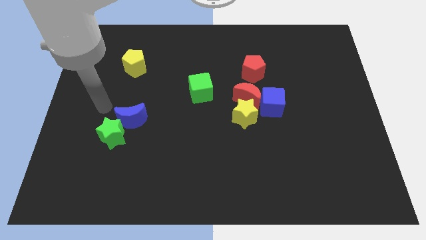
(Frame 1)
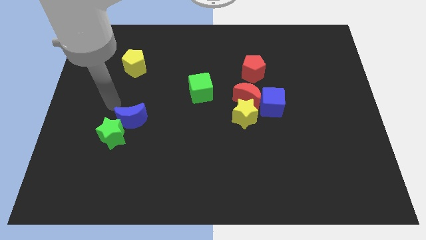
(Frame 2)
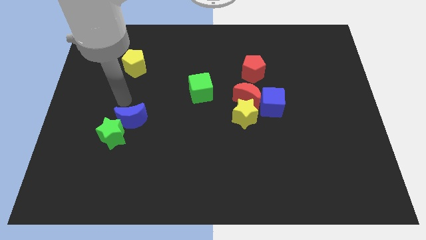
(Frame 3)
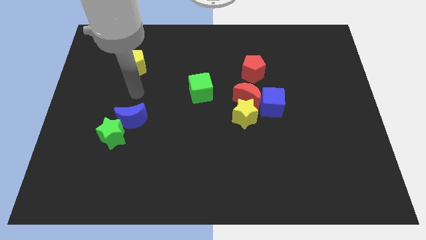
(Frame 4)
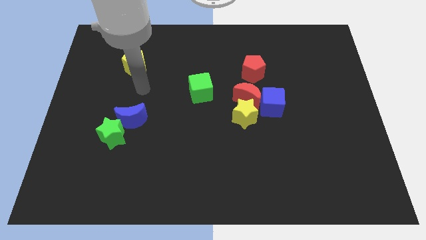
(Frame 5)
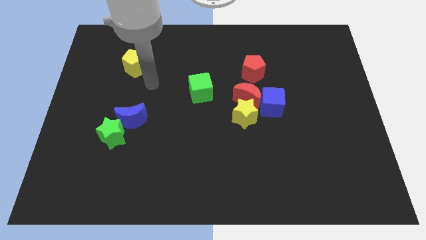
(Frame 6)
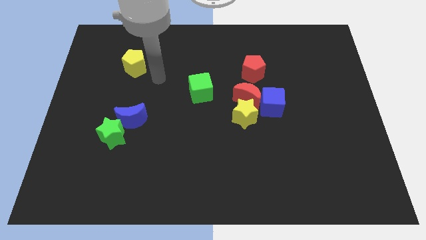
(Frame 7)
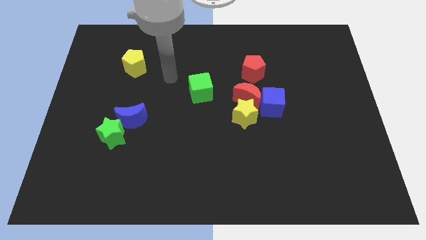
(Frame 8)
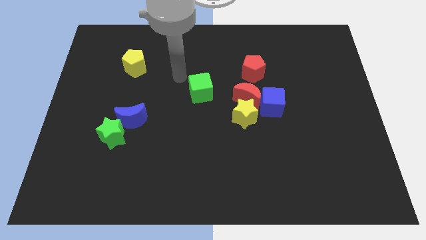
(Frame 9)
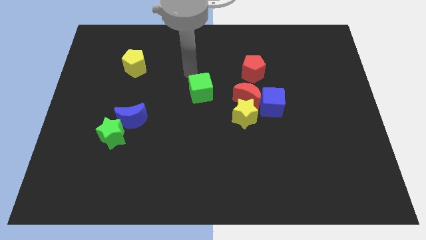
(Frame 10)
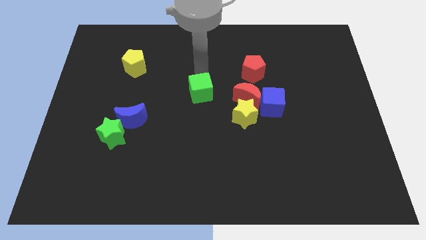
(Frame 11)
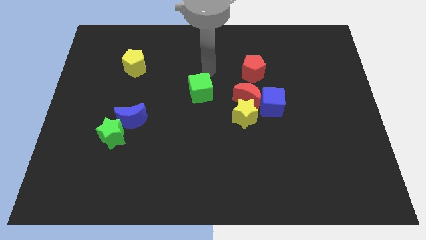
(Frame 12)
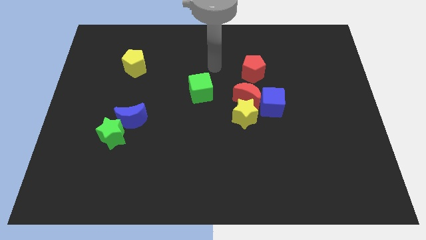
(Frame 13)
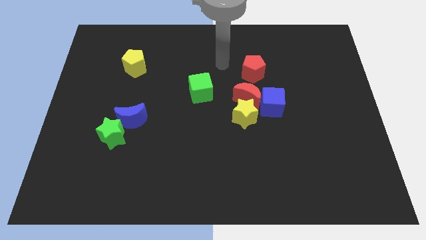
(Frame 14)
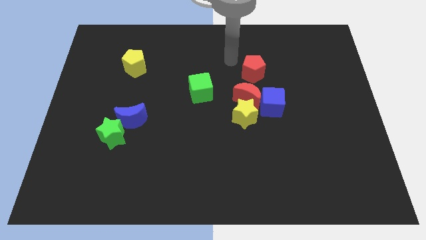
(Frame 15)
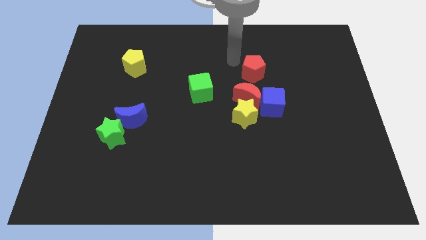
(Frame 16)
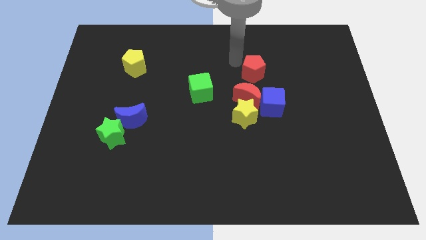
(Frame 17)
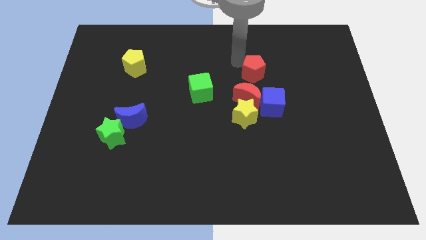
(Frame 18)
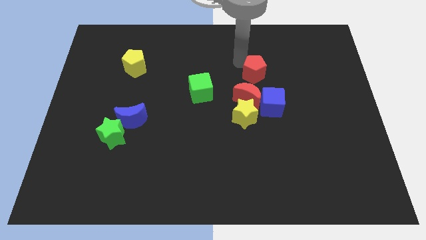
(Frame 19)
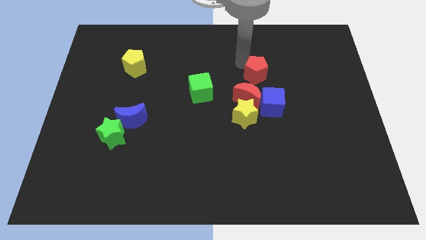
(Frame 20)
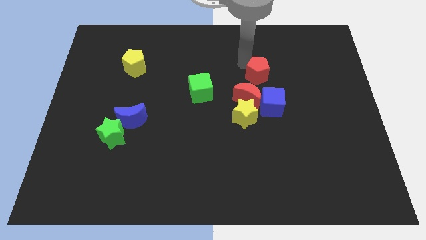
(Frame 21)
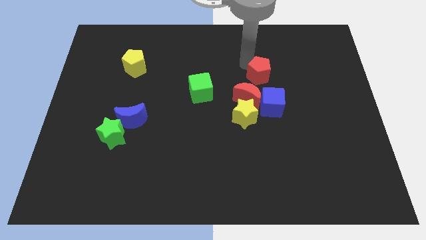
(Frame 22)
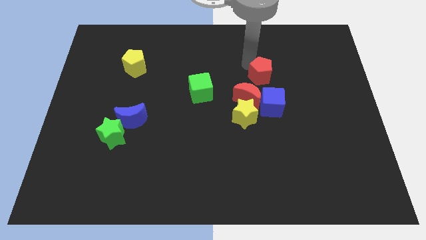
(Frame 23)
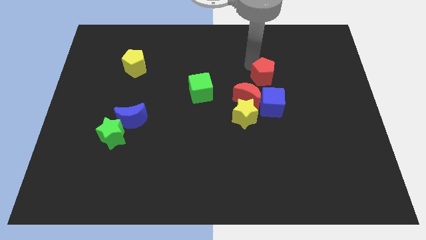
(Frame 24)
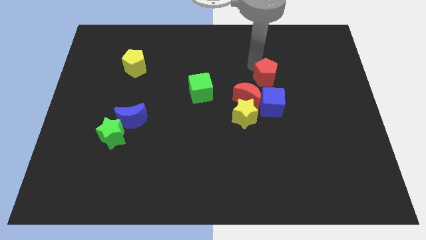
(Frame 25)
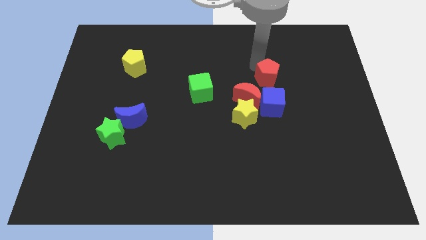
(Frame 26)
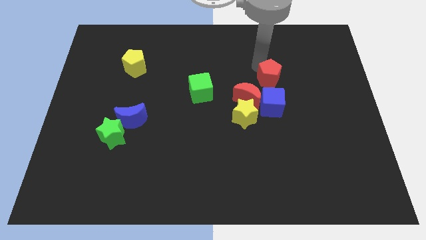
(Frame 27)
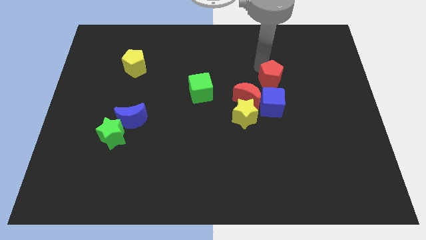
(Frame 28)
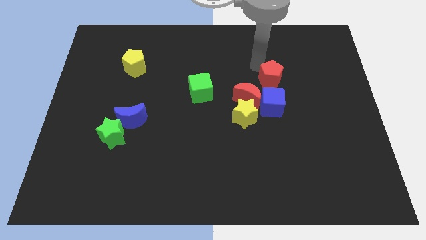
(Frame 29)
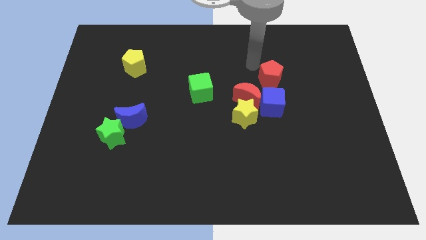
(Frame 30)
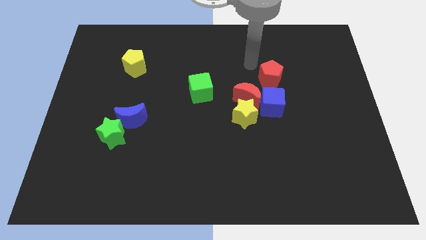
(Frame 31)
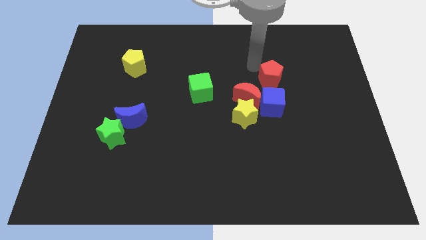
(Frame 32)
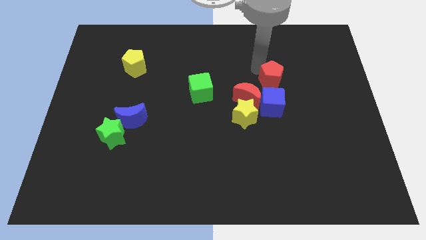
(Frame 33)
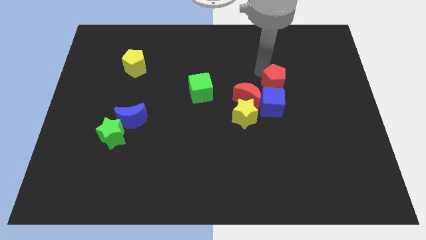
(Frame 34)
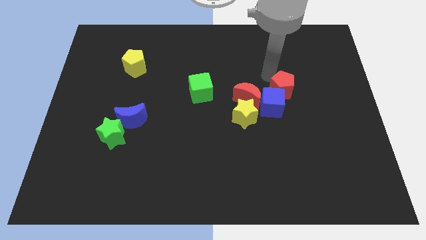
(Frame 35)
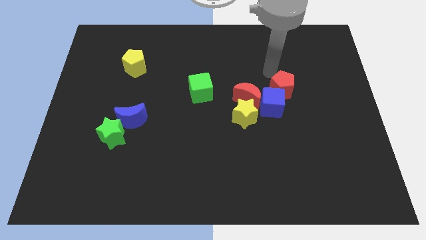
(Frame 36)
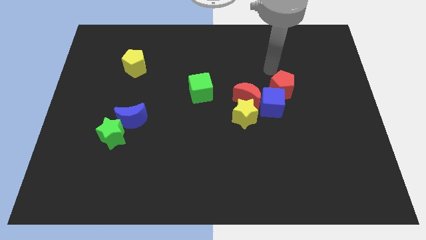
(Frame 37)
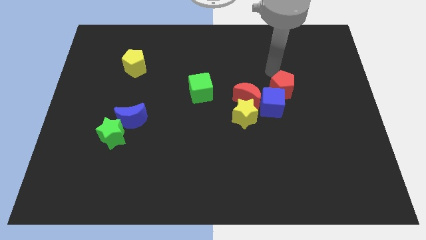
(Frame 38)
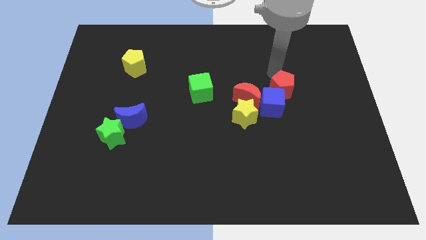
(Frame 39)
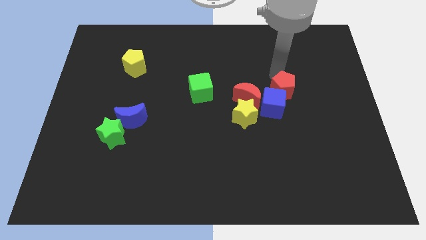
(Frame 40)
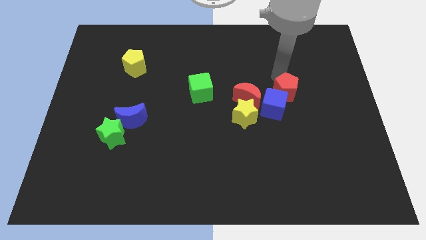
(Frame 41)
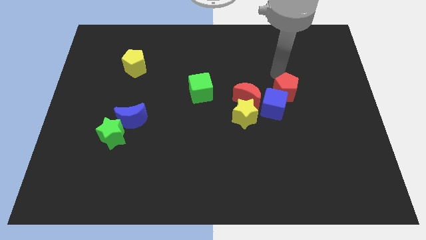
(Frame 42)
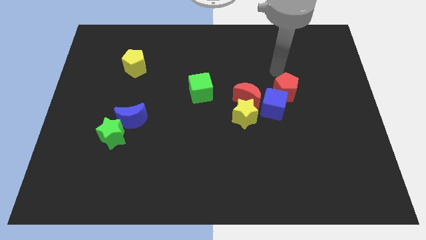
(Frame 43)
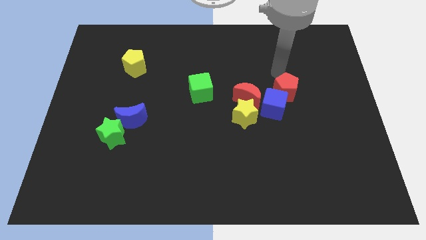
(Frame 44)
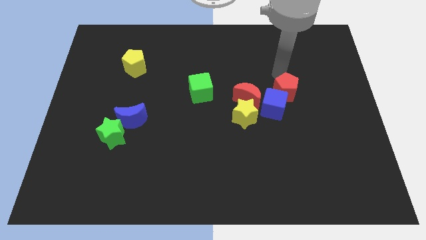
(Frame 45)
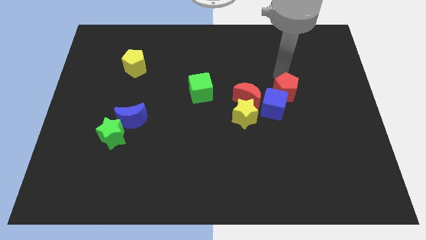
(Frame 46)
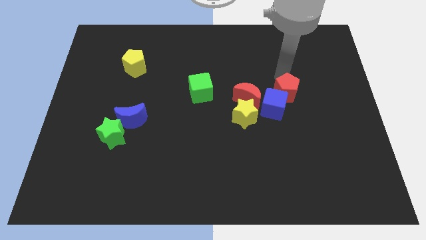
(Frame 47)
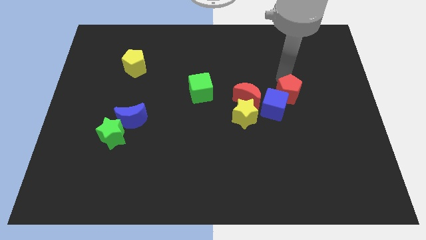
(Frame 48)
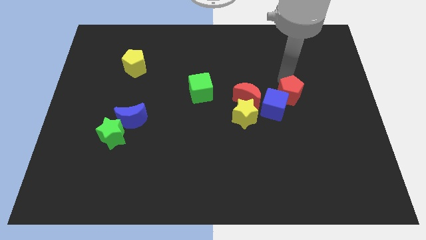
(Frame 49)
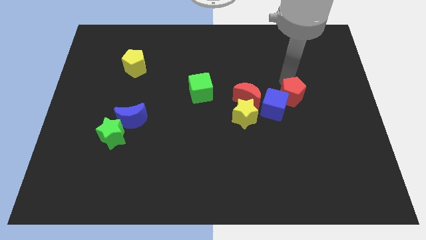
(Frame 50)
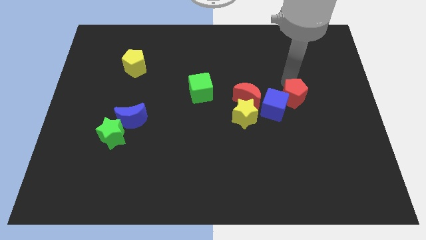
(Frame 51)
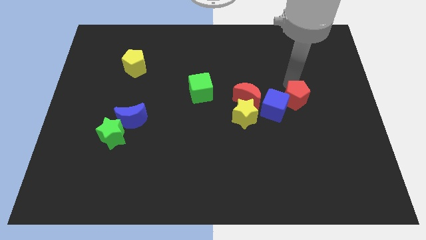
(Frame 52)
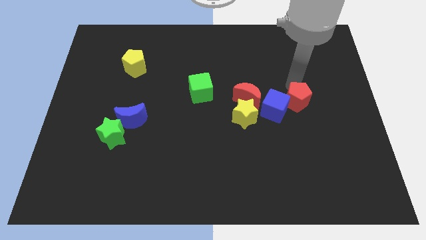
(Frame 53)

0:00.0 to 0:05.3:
move the red pentagon to the right of the yellow star

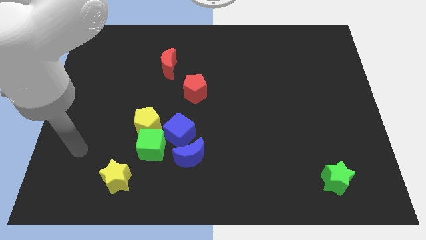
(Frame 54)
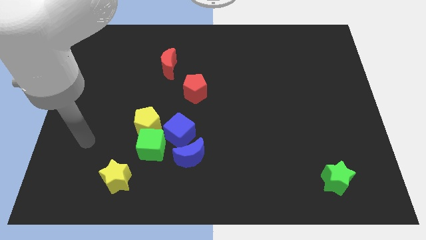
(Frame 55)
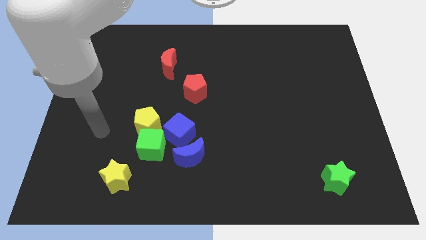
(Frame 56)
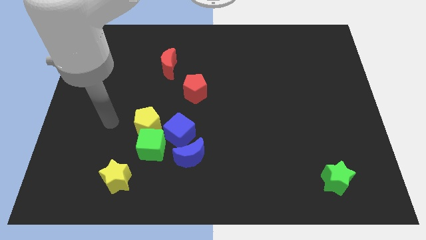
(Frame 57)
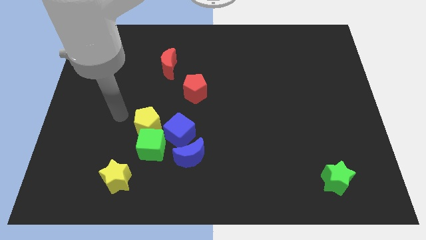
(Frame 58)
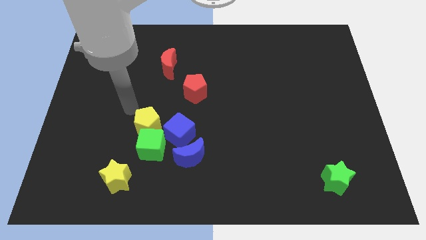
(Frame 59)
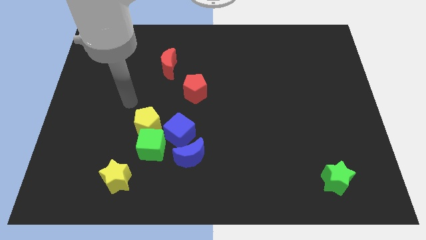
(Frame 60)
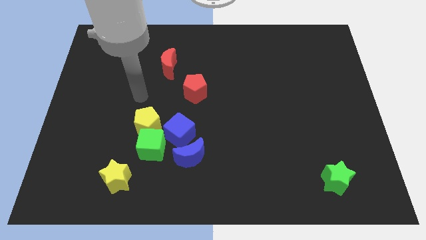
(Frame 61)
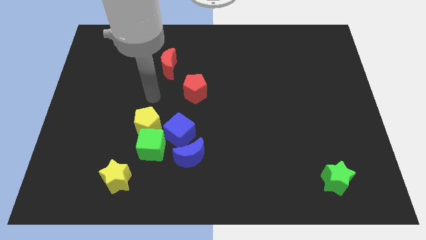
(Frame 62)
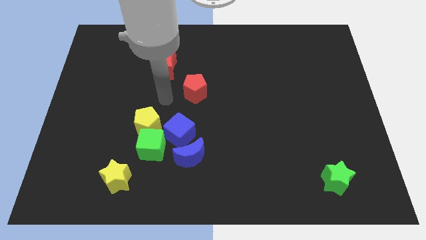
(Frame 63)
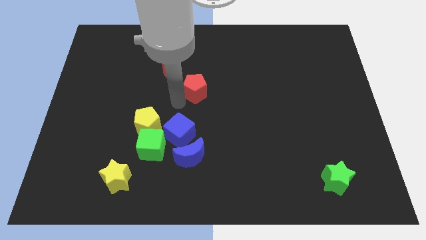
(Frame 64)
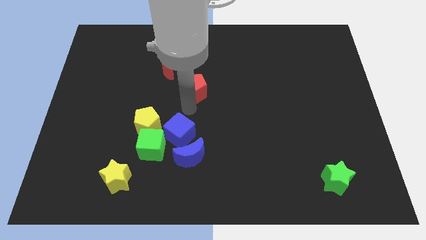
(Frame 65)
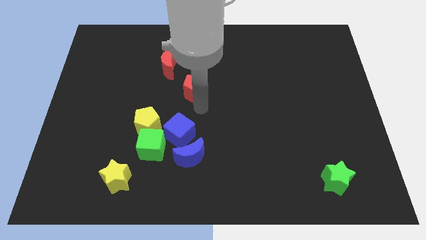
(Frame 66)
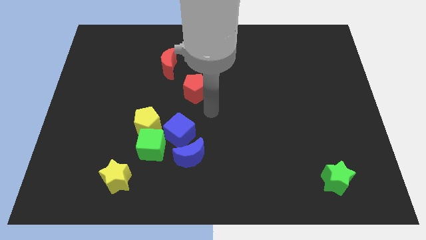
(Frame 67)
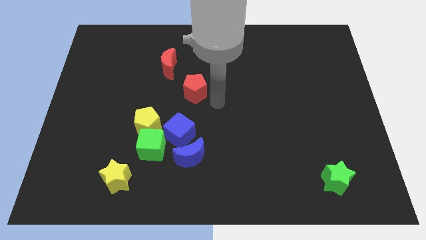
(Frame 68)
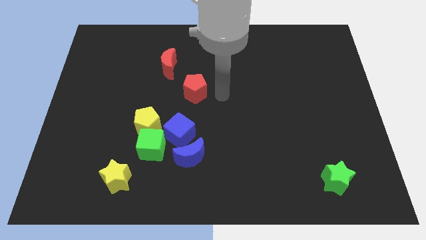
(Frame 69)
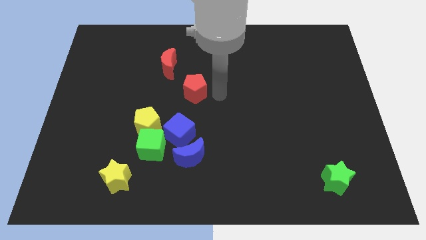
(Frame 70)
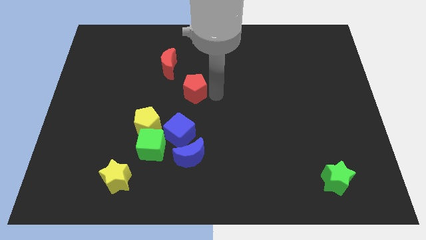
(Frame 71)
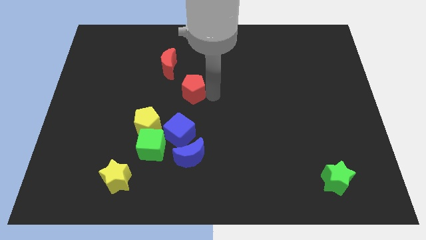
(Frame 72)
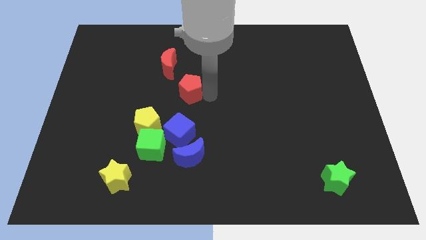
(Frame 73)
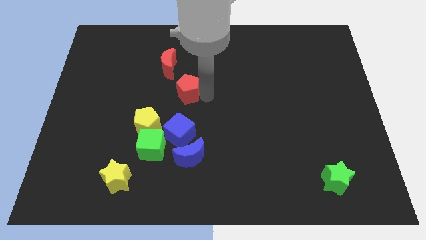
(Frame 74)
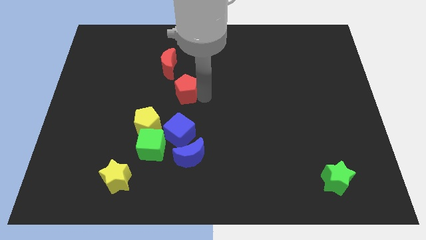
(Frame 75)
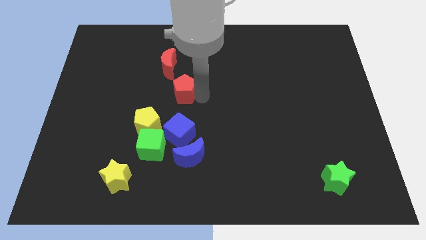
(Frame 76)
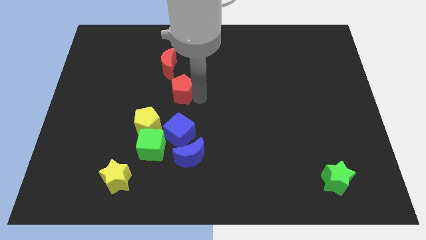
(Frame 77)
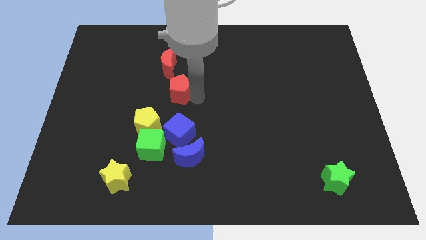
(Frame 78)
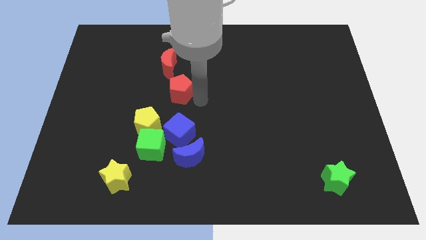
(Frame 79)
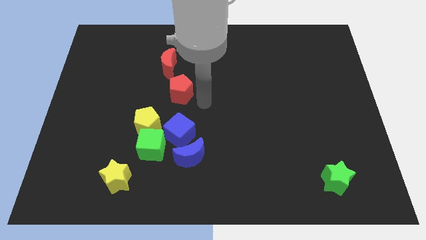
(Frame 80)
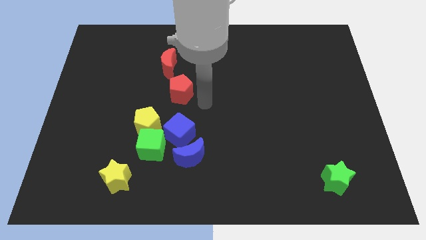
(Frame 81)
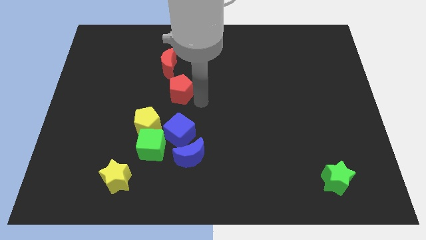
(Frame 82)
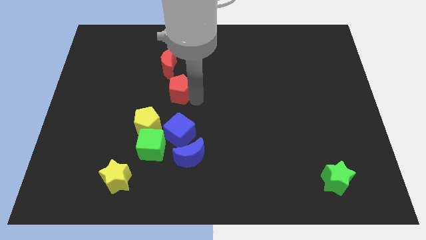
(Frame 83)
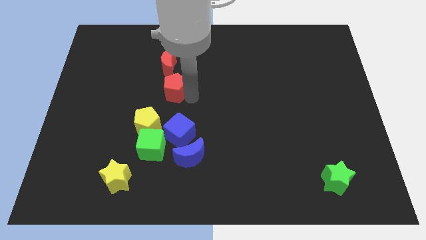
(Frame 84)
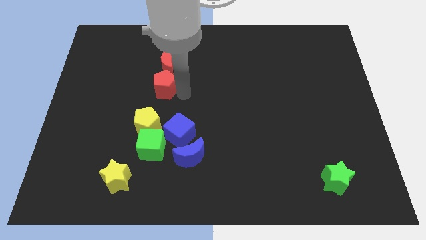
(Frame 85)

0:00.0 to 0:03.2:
move the red pentagon diagonally down and to the left of the red moon
